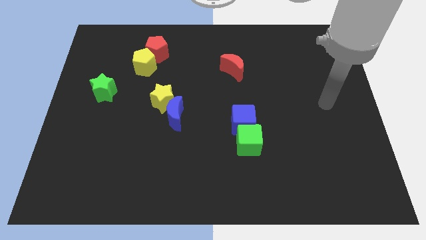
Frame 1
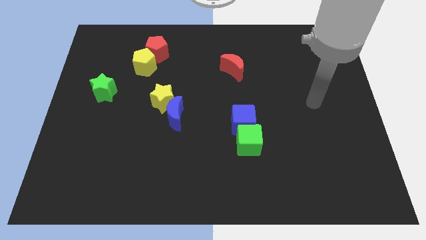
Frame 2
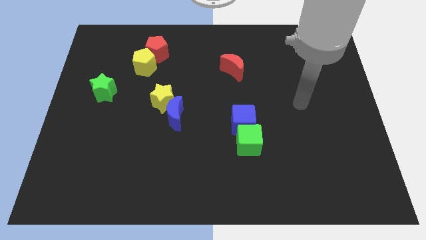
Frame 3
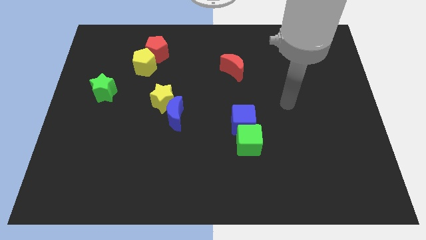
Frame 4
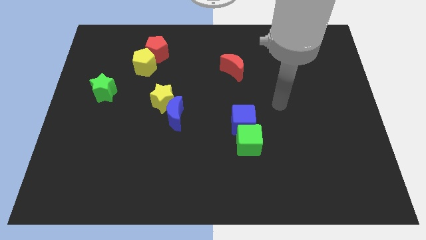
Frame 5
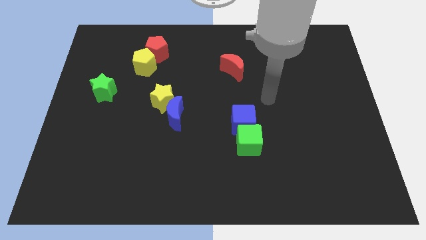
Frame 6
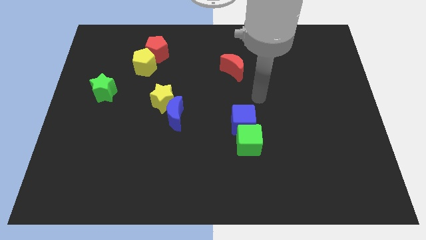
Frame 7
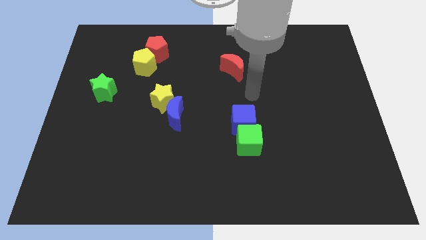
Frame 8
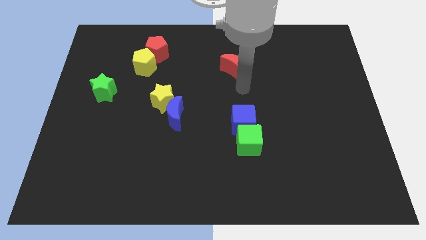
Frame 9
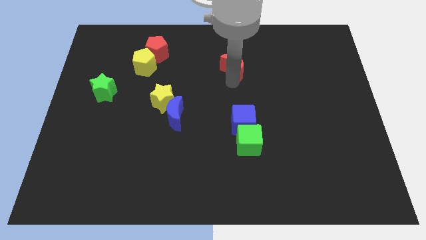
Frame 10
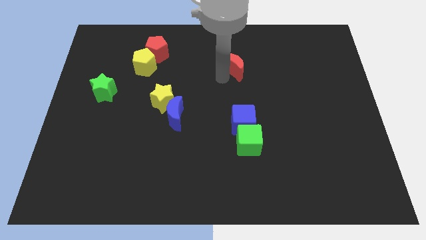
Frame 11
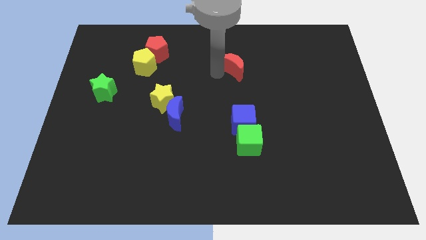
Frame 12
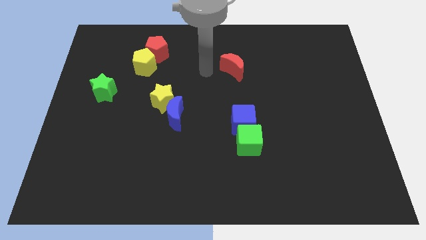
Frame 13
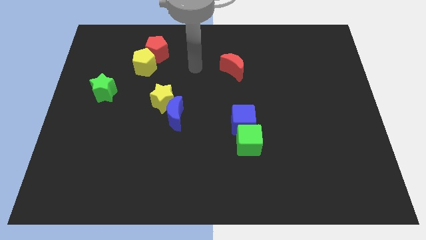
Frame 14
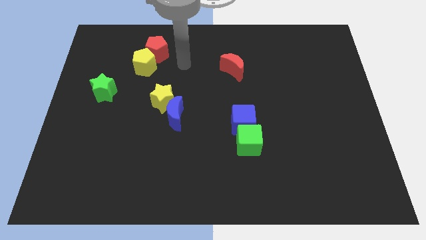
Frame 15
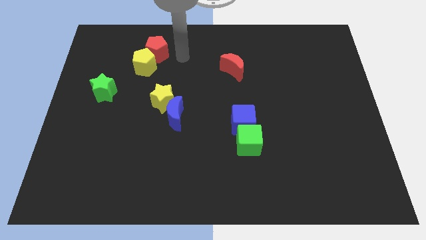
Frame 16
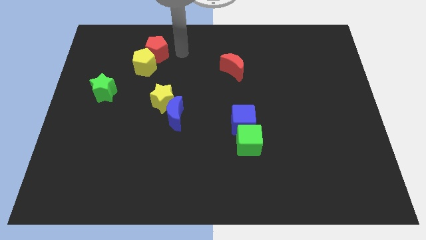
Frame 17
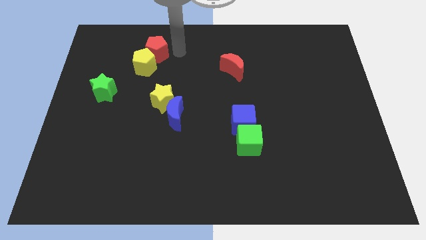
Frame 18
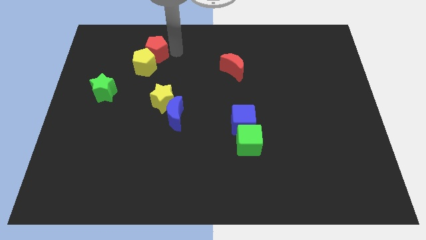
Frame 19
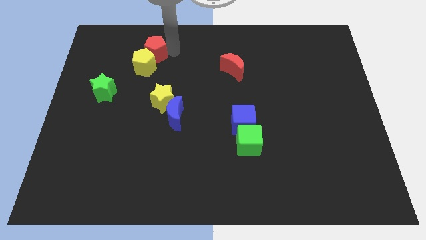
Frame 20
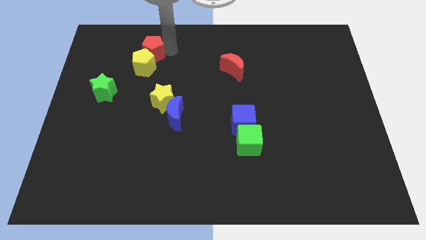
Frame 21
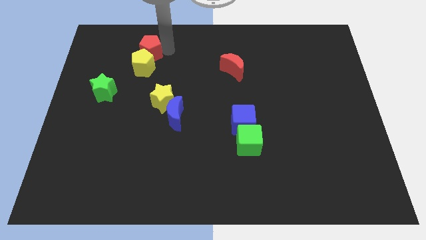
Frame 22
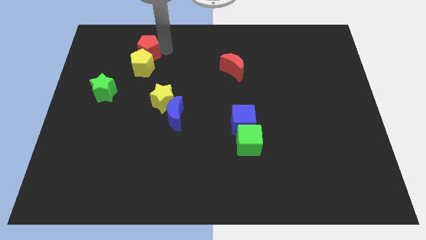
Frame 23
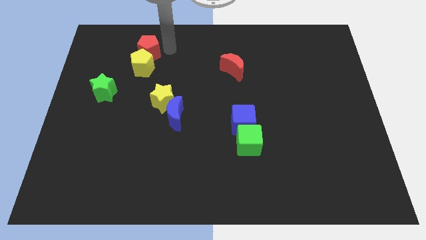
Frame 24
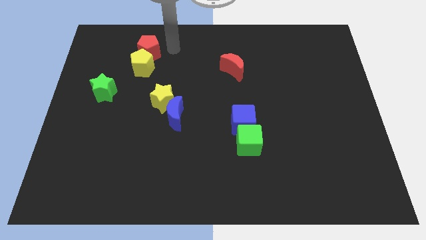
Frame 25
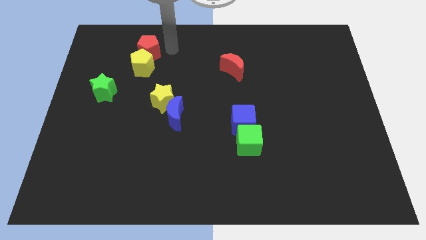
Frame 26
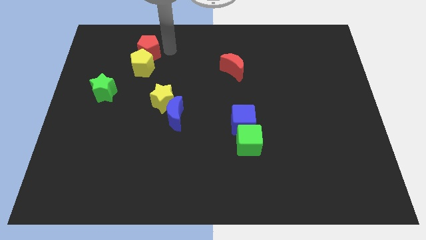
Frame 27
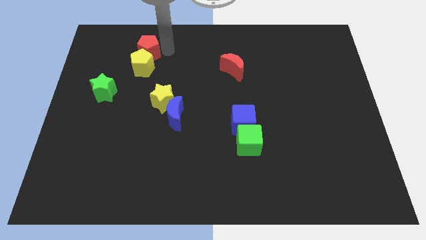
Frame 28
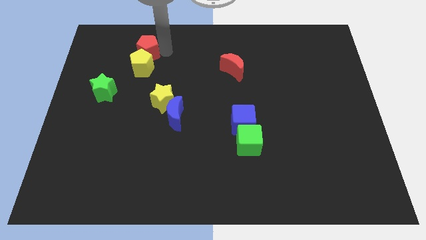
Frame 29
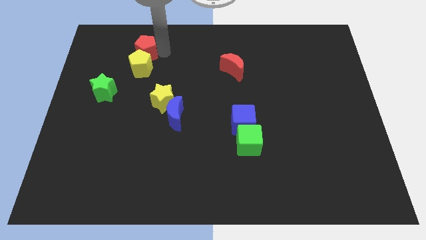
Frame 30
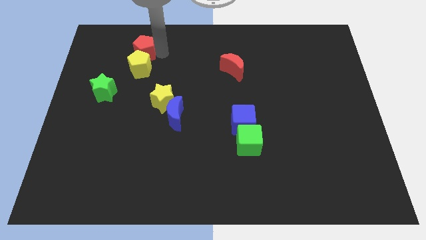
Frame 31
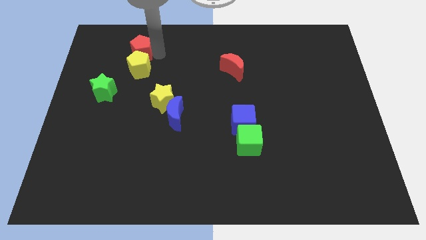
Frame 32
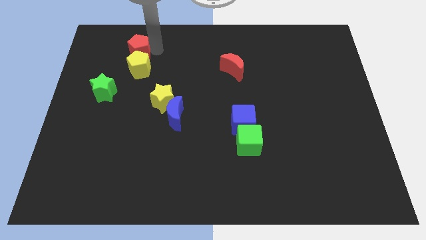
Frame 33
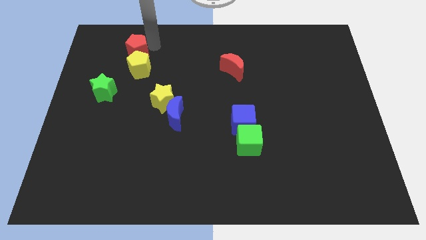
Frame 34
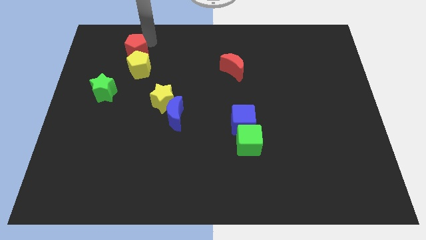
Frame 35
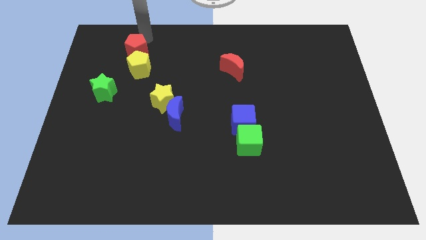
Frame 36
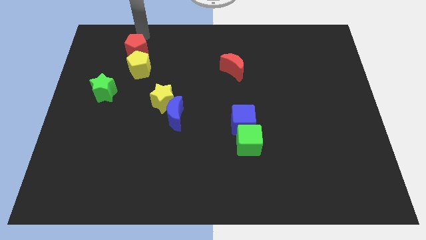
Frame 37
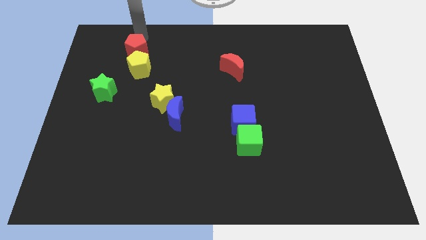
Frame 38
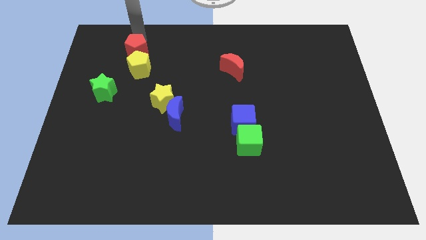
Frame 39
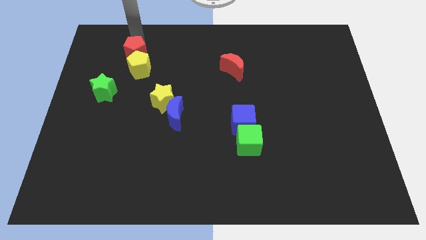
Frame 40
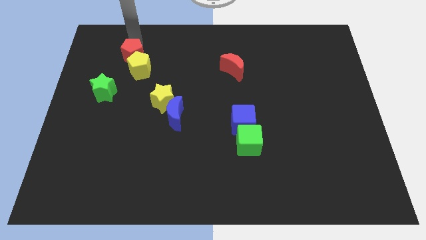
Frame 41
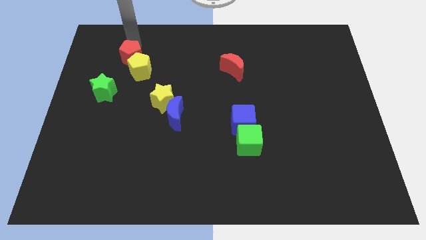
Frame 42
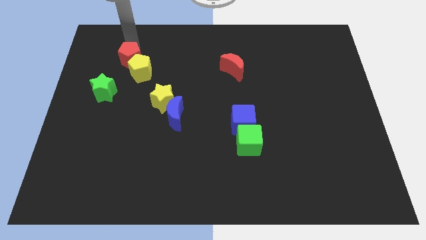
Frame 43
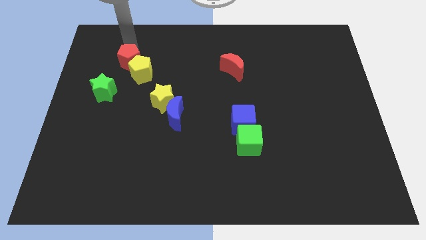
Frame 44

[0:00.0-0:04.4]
move the red pentagon diagonally up and to the right of the green star

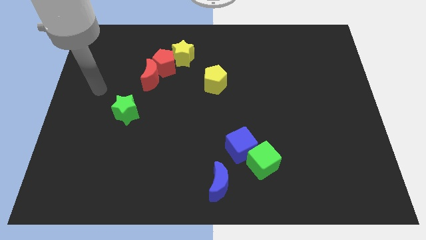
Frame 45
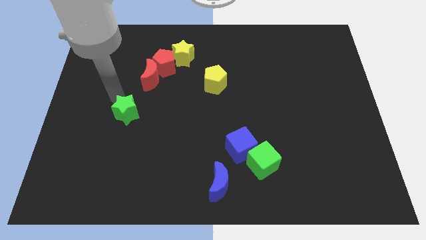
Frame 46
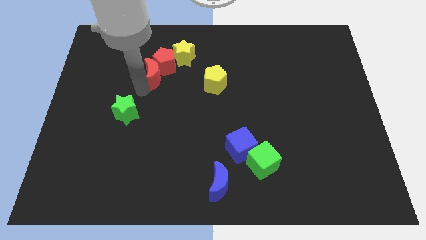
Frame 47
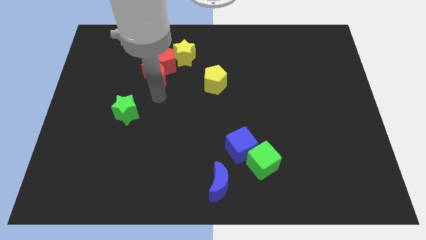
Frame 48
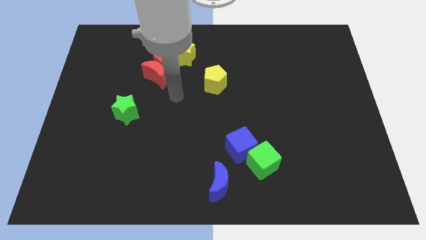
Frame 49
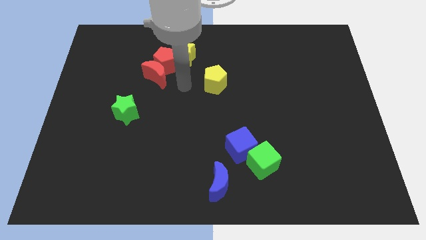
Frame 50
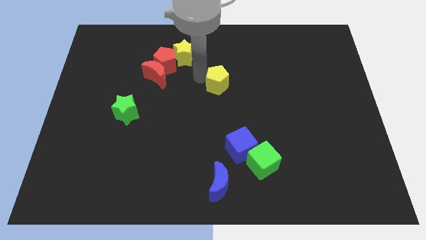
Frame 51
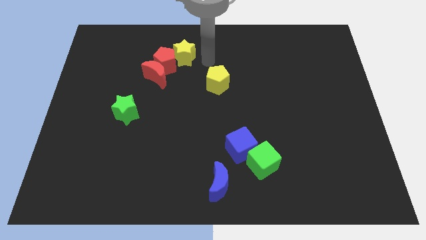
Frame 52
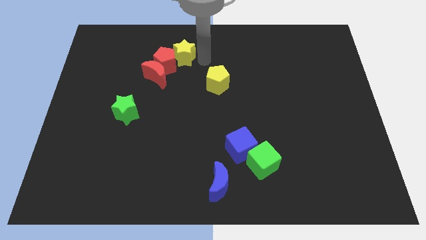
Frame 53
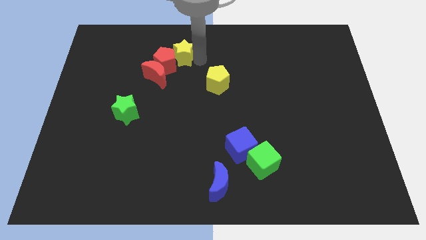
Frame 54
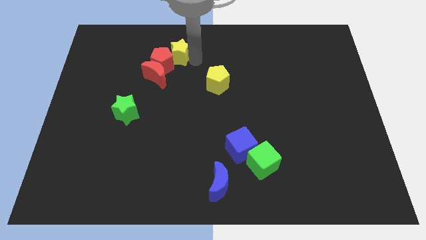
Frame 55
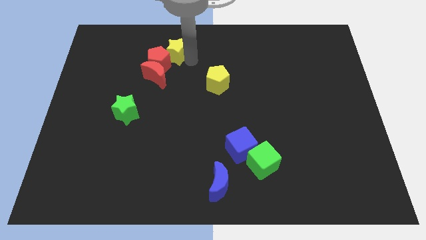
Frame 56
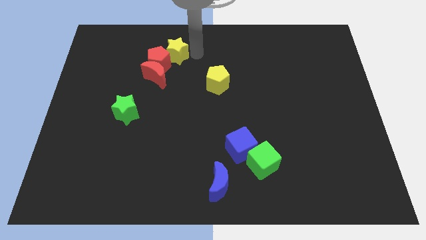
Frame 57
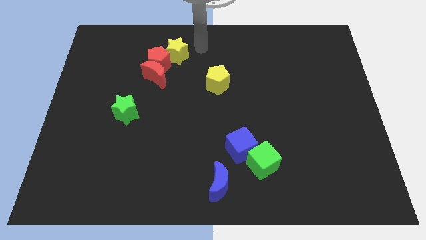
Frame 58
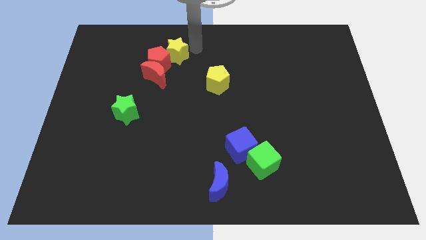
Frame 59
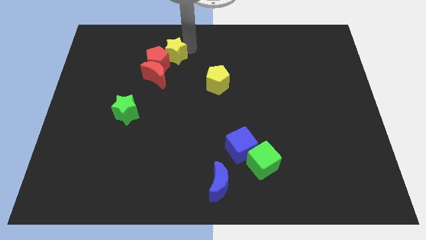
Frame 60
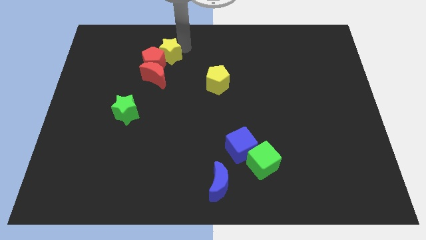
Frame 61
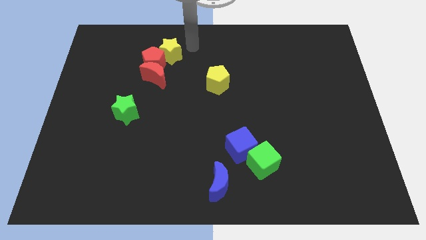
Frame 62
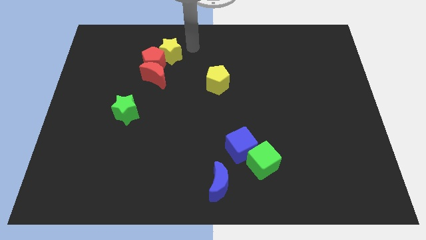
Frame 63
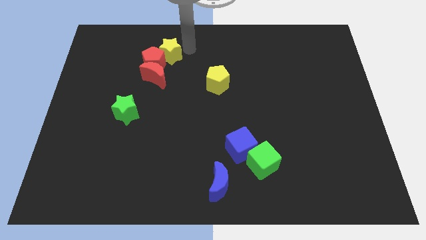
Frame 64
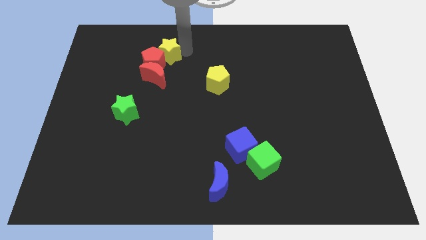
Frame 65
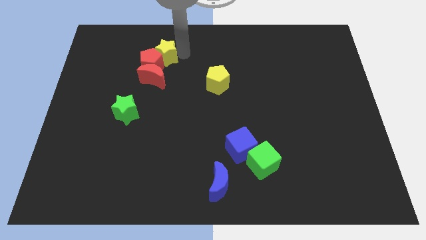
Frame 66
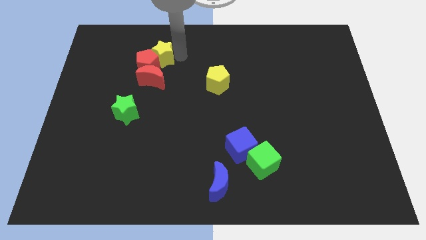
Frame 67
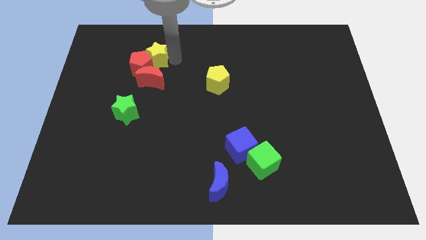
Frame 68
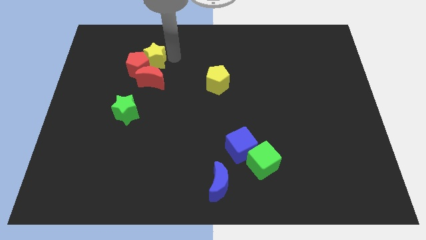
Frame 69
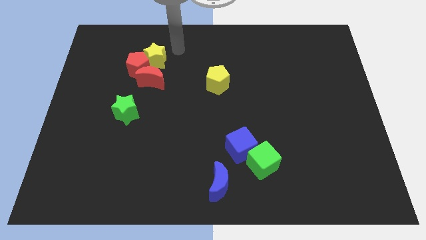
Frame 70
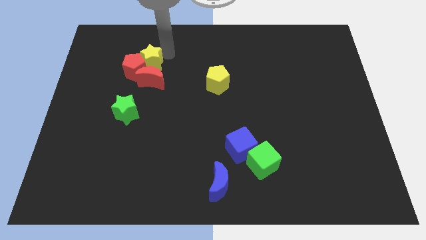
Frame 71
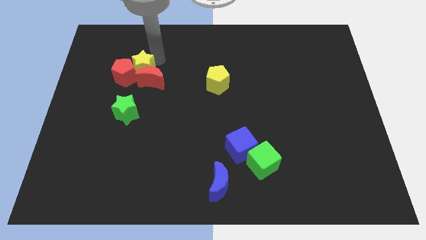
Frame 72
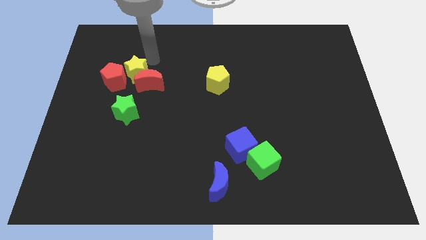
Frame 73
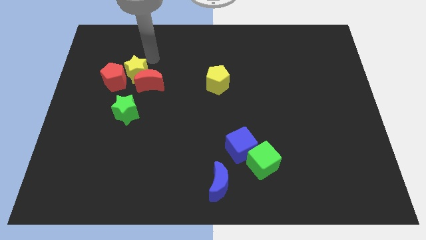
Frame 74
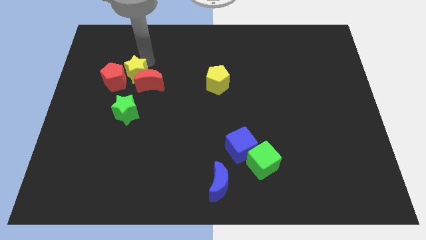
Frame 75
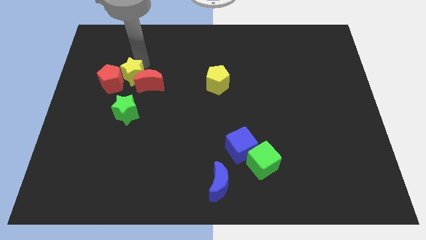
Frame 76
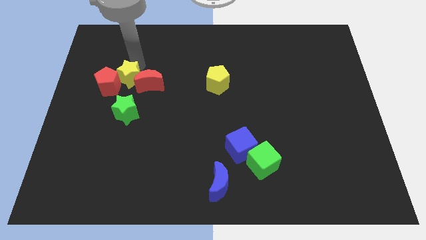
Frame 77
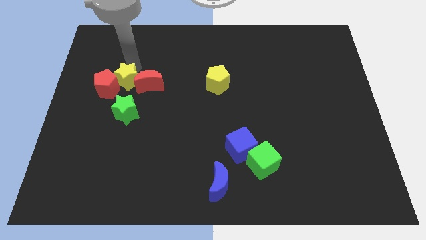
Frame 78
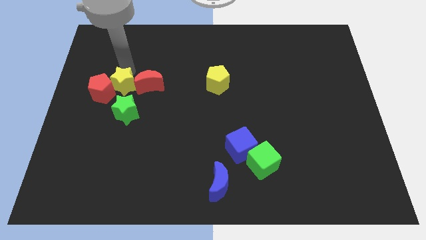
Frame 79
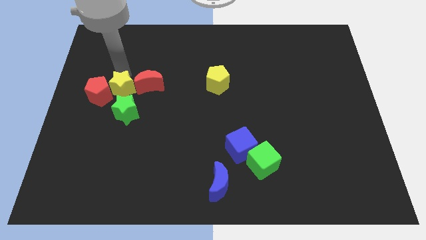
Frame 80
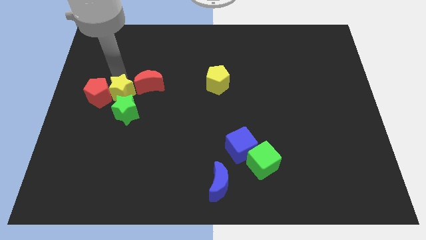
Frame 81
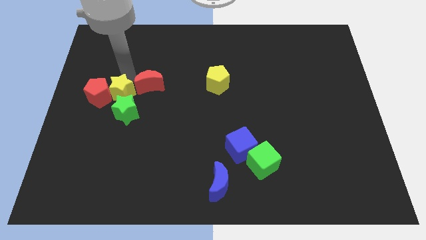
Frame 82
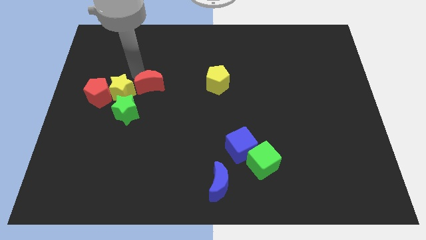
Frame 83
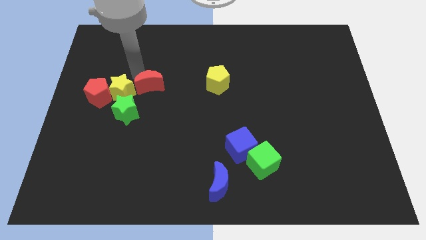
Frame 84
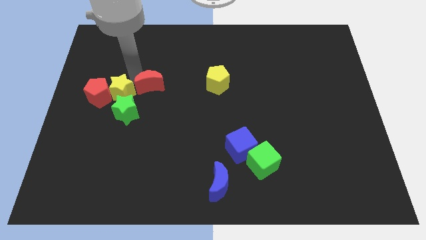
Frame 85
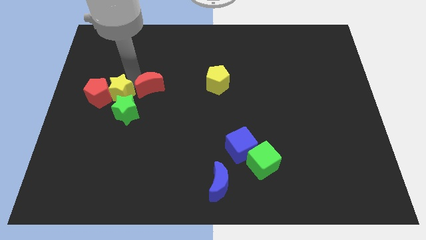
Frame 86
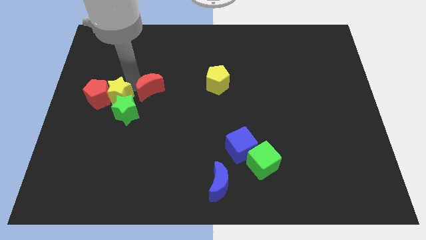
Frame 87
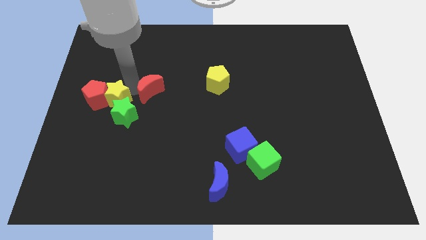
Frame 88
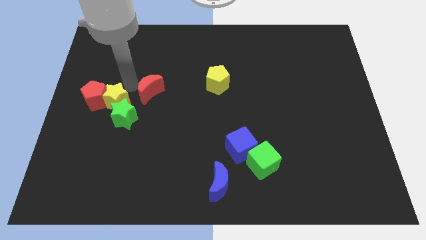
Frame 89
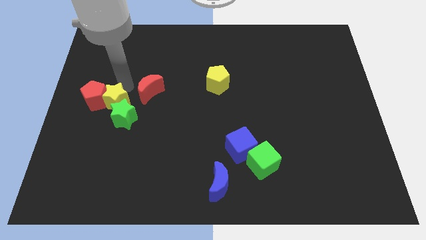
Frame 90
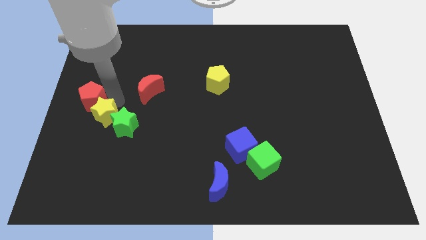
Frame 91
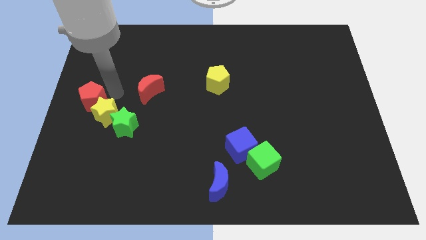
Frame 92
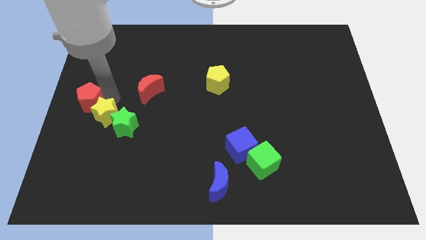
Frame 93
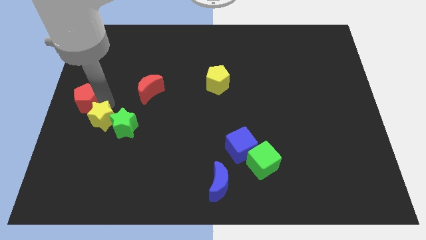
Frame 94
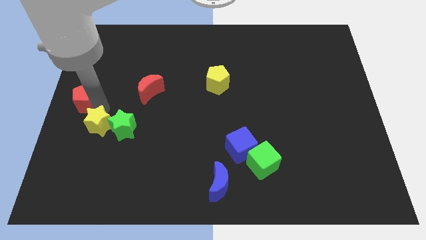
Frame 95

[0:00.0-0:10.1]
put the yellow star diagonally down and to the left of the green star
